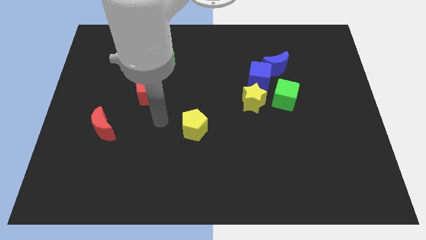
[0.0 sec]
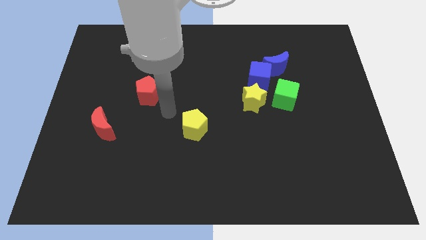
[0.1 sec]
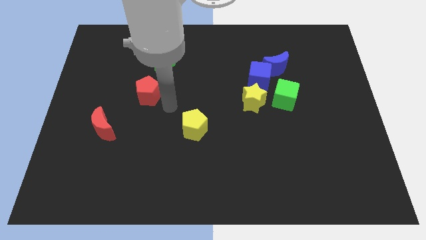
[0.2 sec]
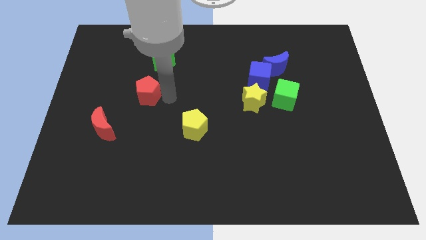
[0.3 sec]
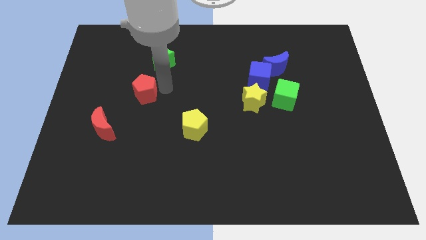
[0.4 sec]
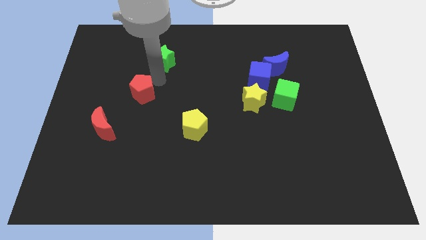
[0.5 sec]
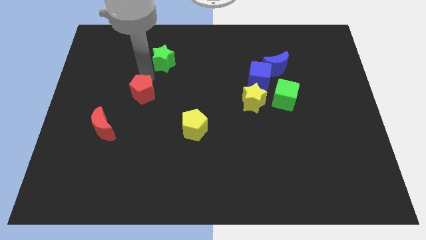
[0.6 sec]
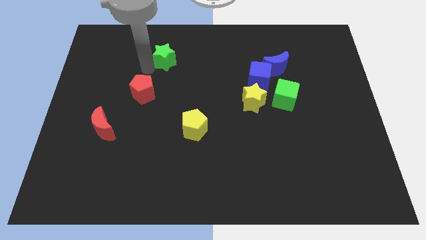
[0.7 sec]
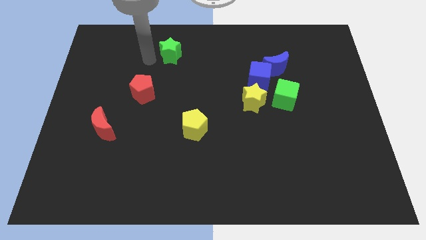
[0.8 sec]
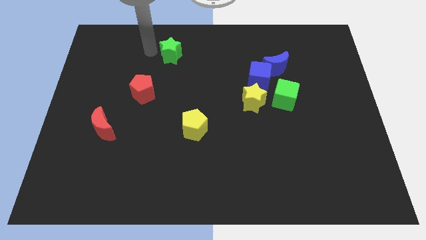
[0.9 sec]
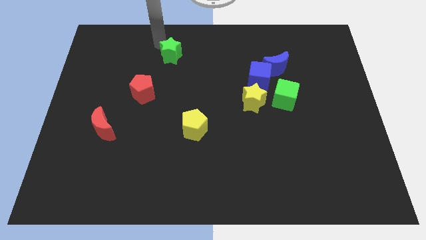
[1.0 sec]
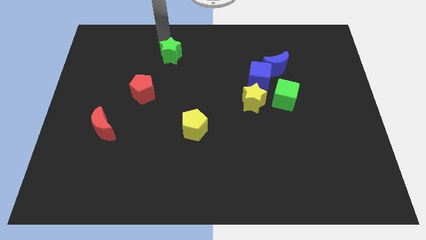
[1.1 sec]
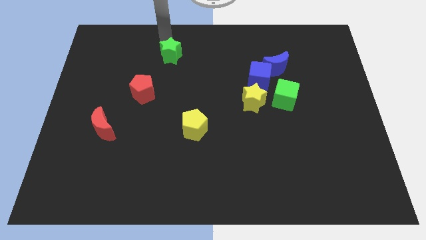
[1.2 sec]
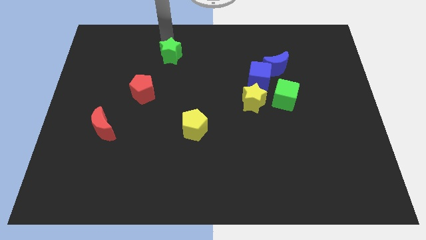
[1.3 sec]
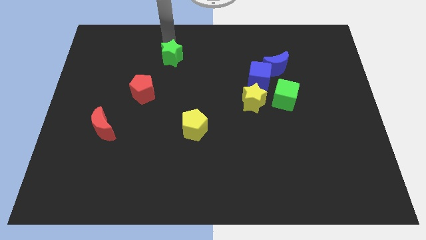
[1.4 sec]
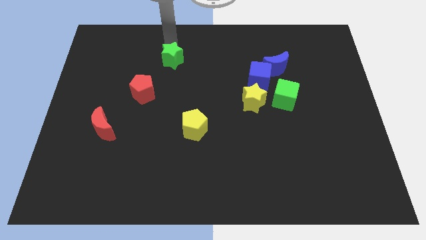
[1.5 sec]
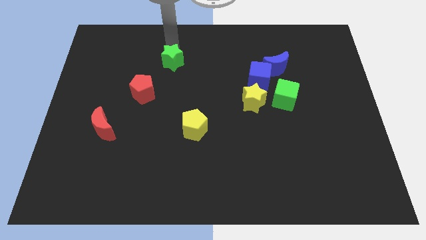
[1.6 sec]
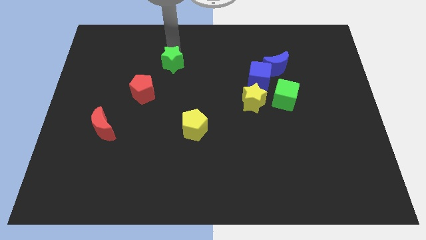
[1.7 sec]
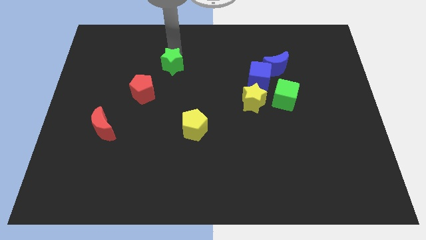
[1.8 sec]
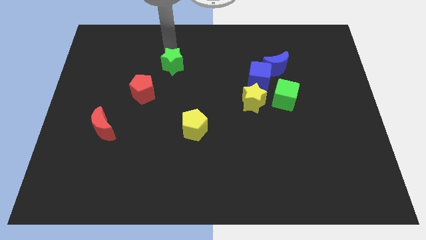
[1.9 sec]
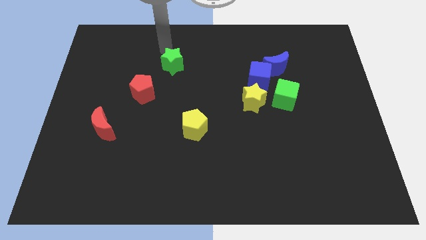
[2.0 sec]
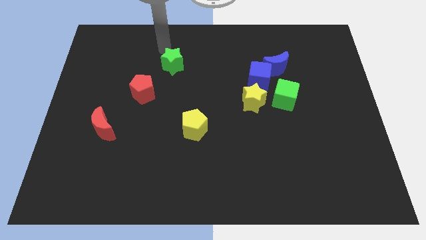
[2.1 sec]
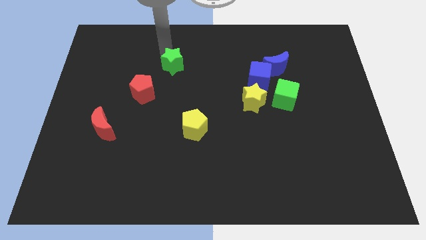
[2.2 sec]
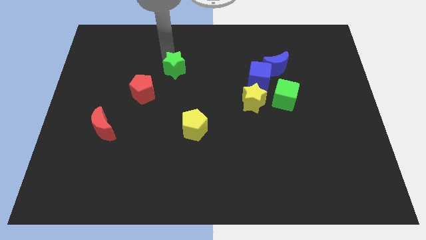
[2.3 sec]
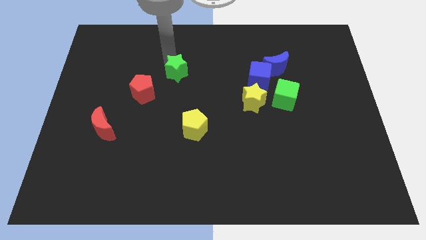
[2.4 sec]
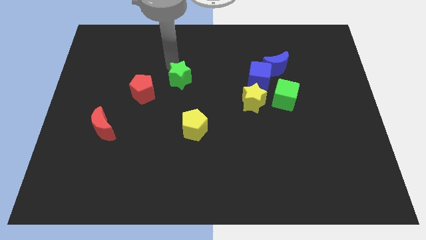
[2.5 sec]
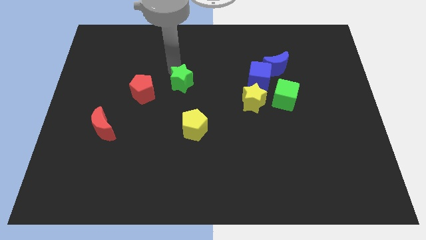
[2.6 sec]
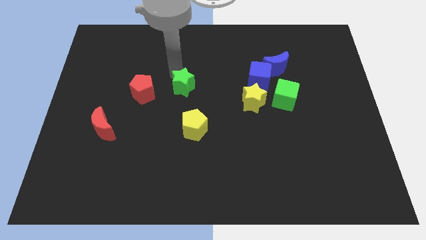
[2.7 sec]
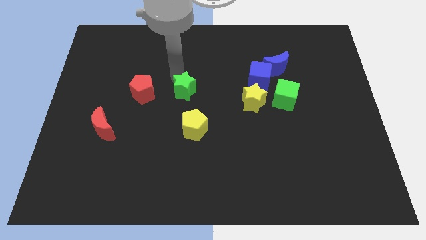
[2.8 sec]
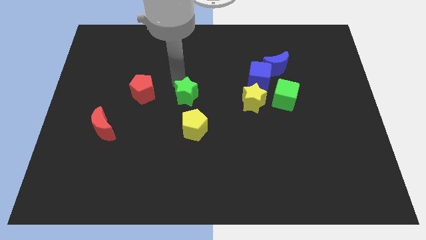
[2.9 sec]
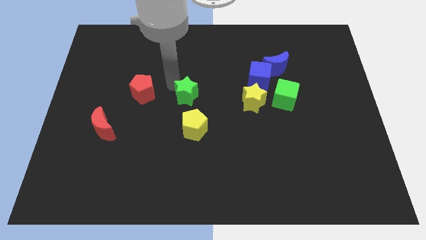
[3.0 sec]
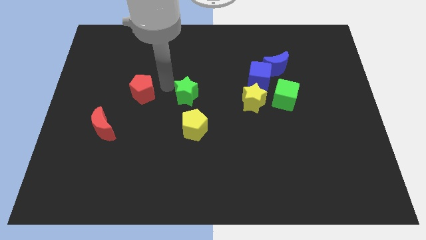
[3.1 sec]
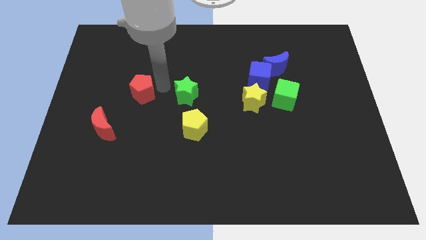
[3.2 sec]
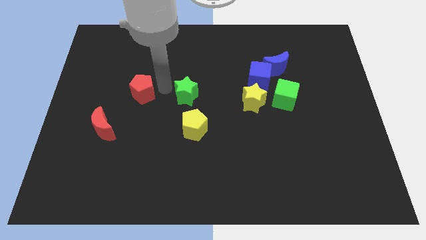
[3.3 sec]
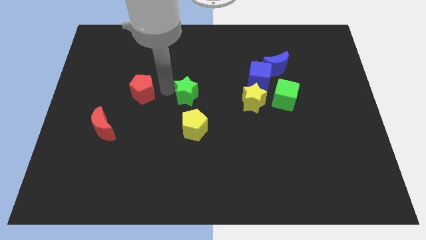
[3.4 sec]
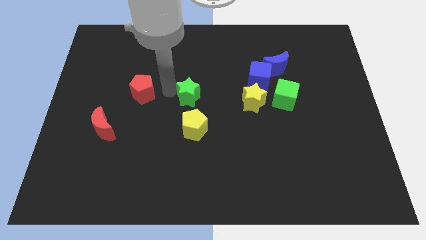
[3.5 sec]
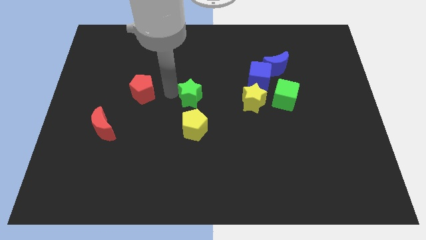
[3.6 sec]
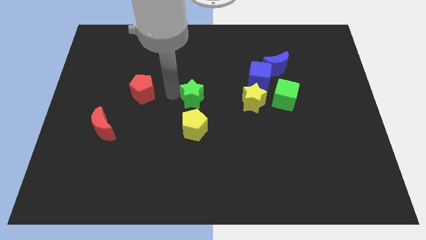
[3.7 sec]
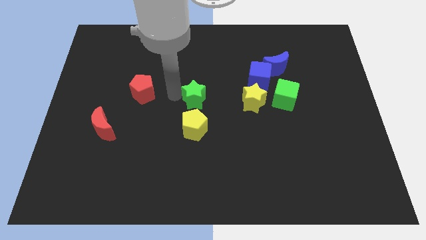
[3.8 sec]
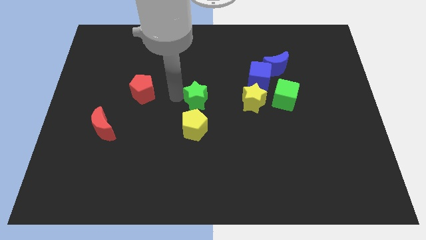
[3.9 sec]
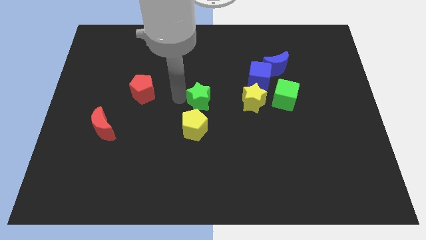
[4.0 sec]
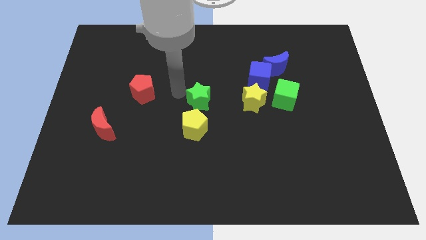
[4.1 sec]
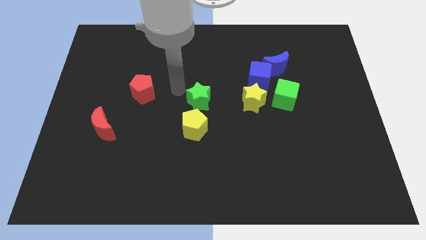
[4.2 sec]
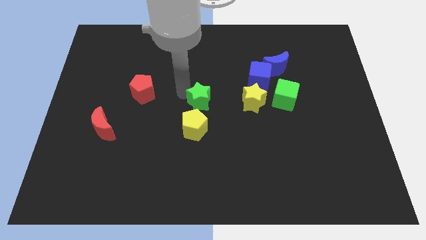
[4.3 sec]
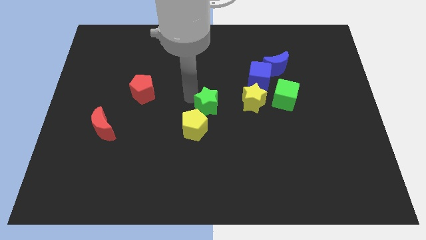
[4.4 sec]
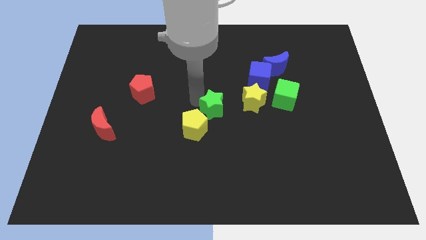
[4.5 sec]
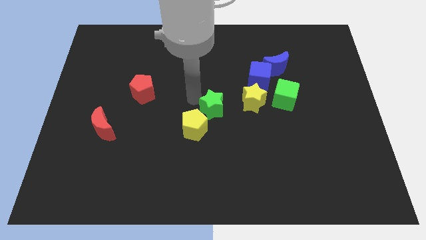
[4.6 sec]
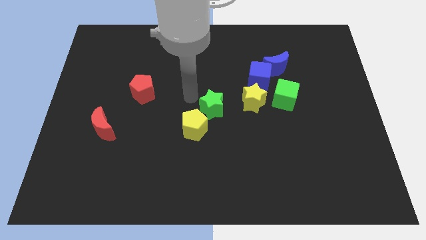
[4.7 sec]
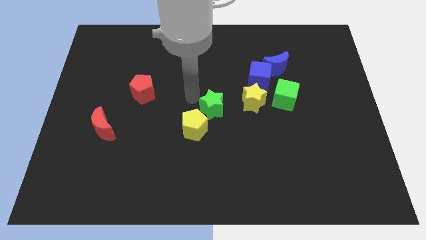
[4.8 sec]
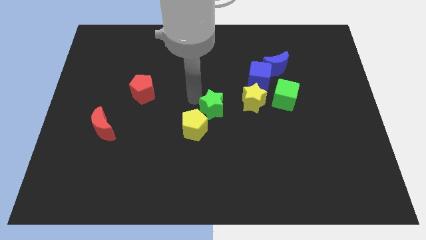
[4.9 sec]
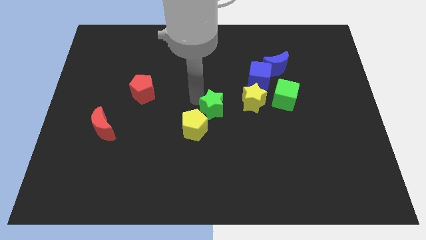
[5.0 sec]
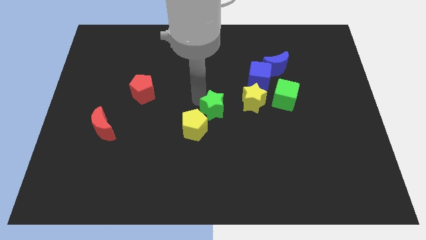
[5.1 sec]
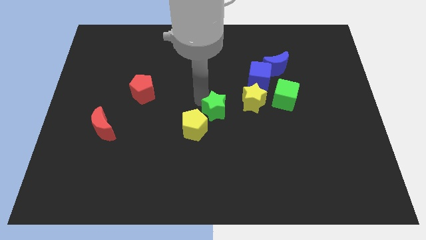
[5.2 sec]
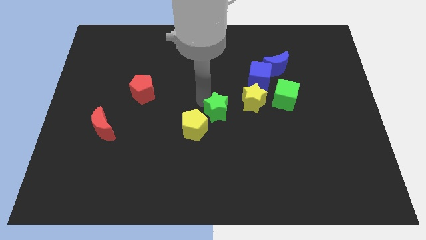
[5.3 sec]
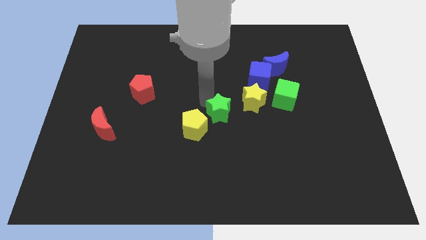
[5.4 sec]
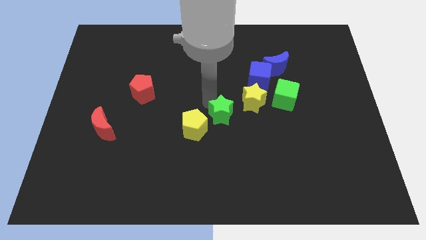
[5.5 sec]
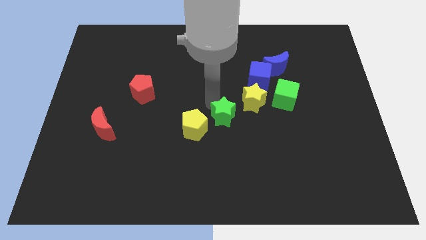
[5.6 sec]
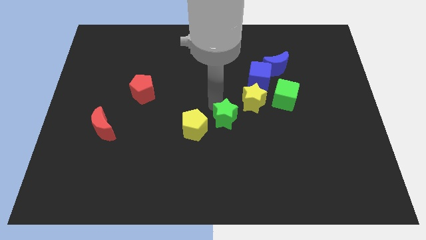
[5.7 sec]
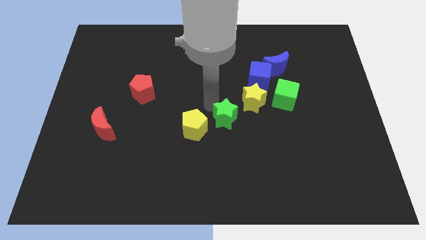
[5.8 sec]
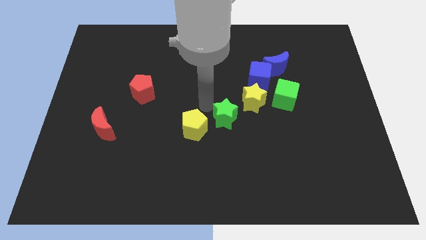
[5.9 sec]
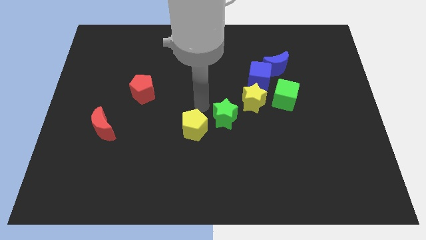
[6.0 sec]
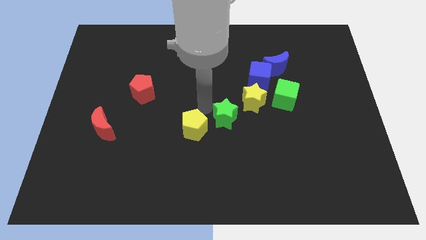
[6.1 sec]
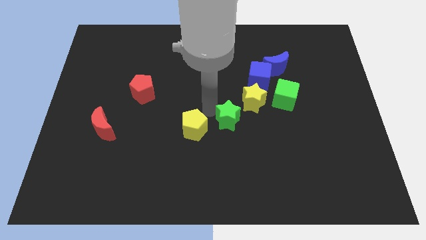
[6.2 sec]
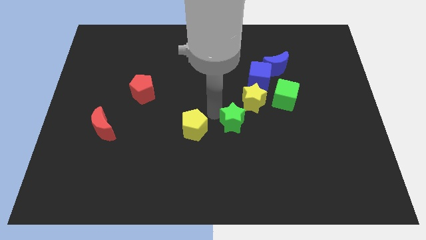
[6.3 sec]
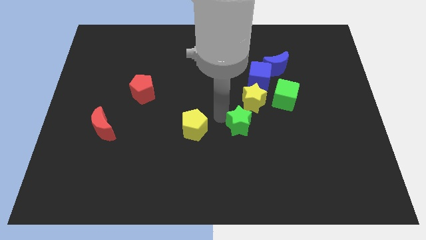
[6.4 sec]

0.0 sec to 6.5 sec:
slide the green star to the bottom of the yellow star

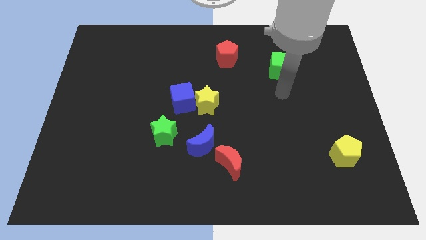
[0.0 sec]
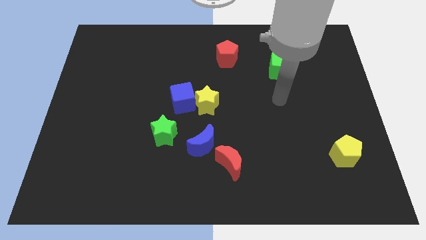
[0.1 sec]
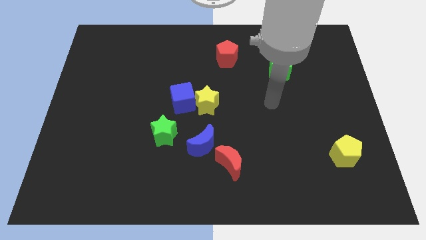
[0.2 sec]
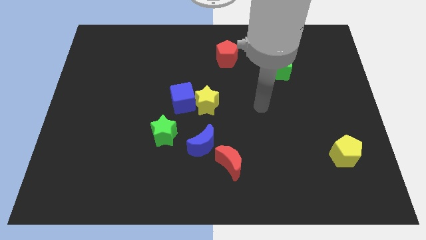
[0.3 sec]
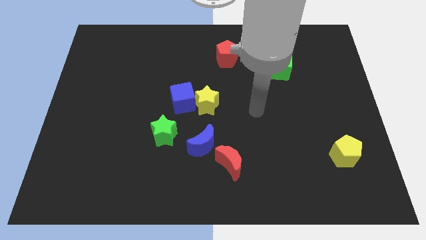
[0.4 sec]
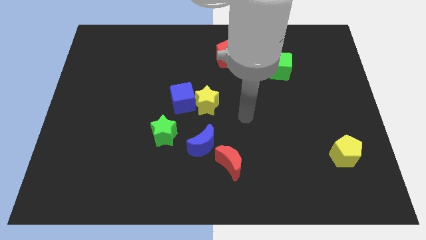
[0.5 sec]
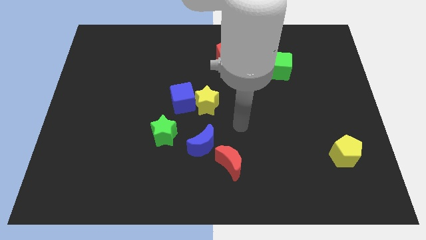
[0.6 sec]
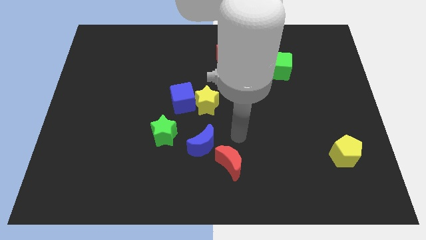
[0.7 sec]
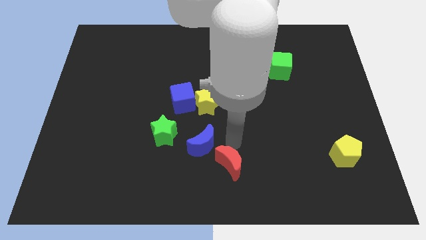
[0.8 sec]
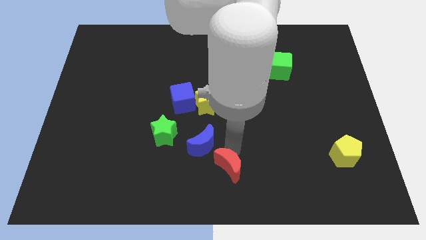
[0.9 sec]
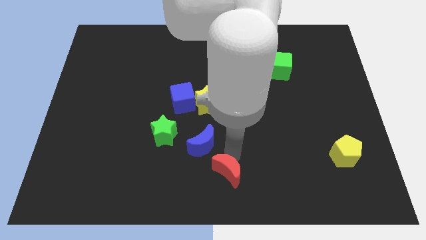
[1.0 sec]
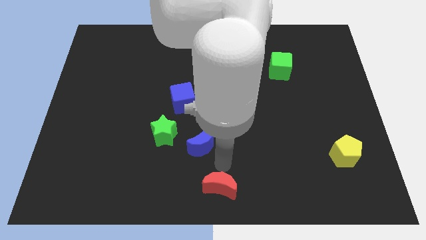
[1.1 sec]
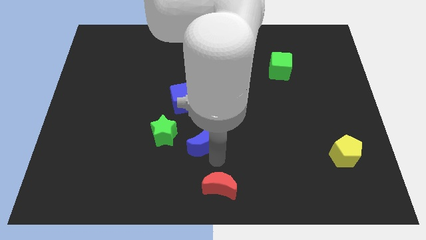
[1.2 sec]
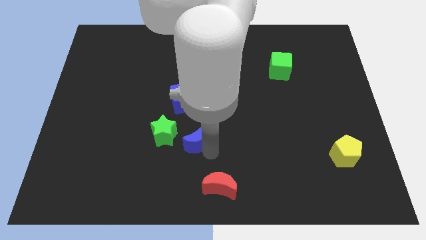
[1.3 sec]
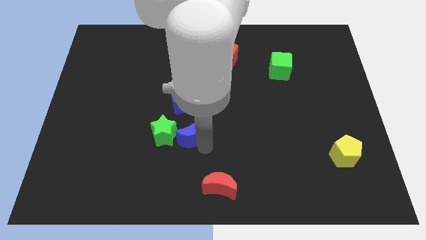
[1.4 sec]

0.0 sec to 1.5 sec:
slide the blue moon to the bottom left of the yellow star

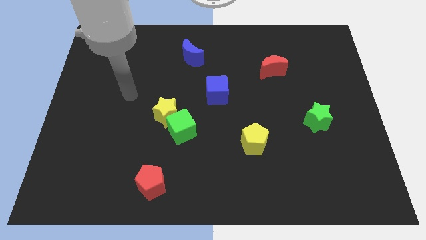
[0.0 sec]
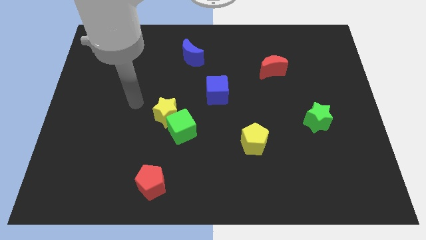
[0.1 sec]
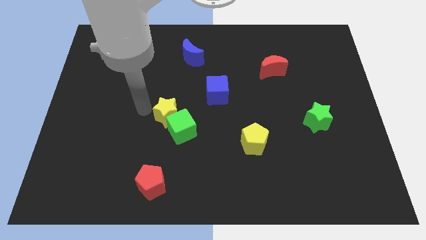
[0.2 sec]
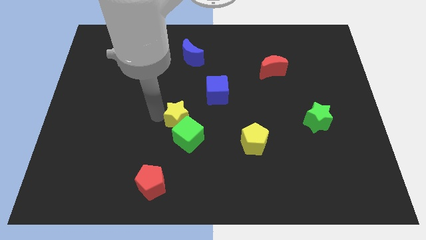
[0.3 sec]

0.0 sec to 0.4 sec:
slide the green cube to the left side of the yellow pentagon
